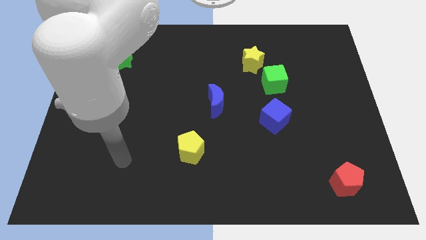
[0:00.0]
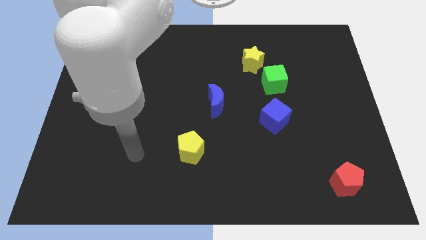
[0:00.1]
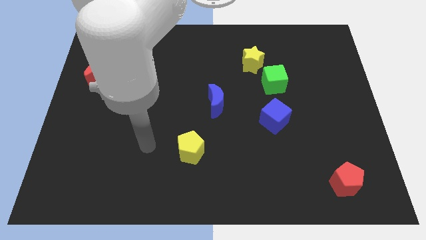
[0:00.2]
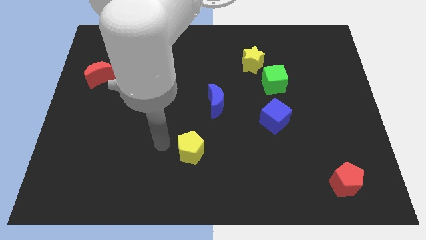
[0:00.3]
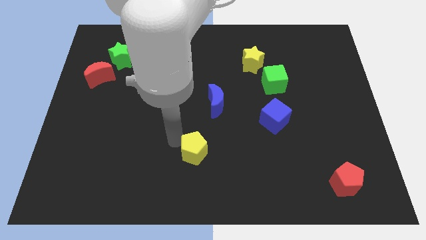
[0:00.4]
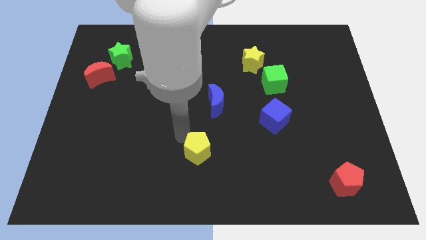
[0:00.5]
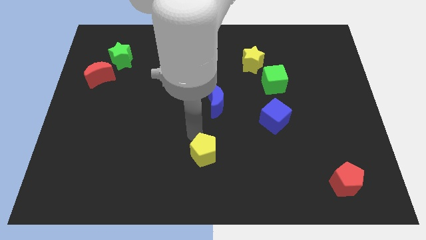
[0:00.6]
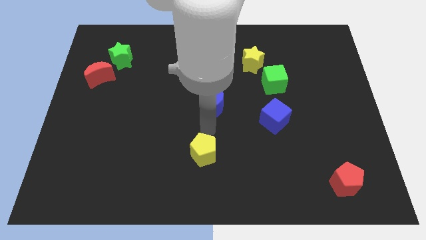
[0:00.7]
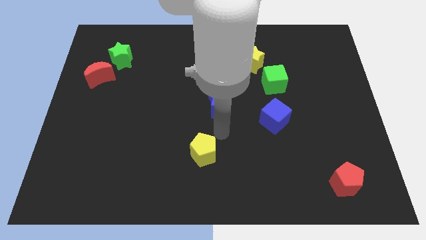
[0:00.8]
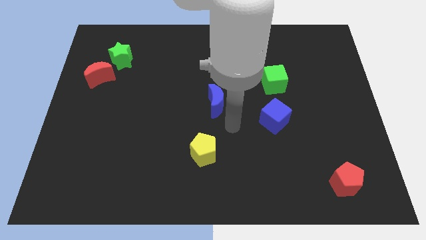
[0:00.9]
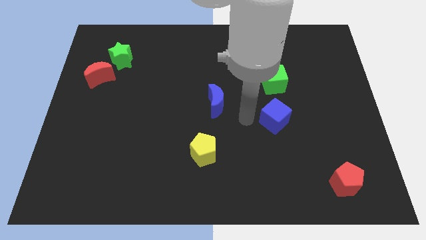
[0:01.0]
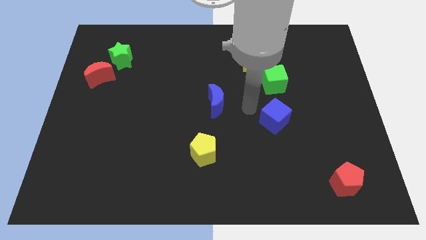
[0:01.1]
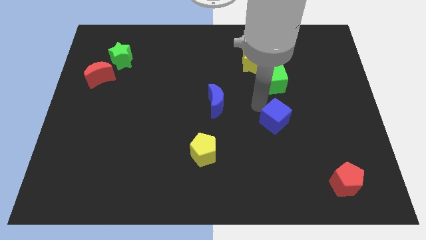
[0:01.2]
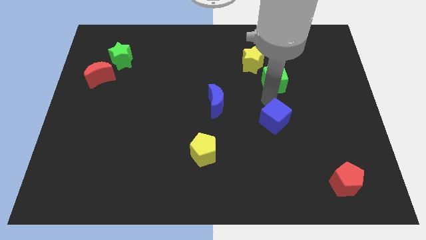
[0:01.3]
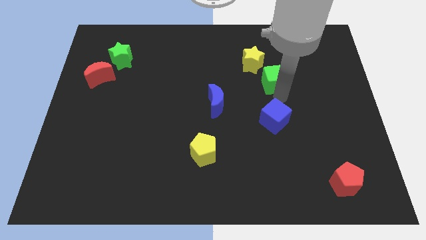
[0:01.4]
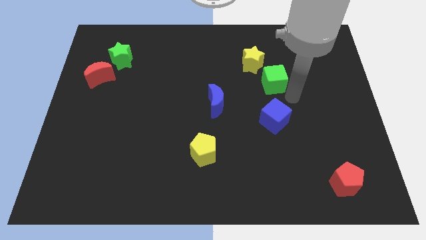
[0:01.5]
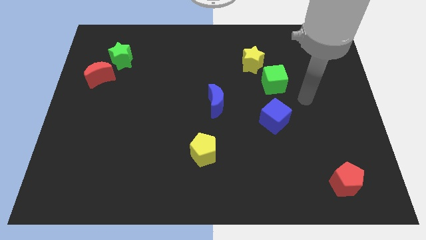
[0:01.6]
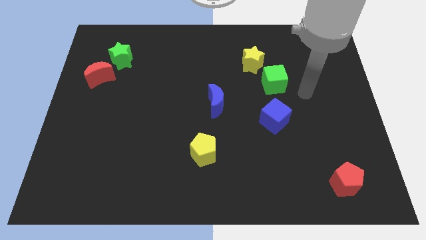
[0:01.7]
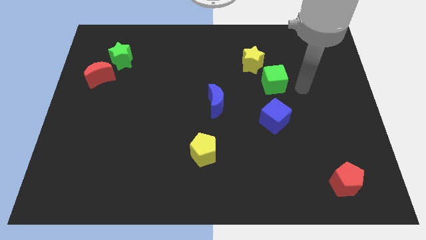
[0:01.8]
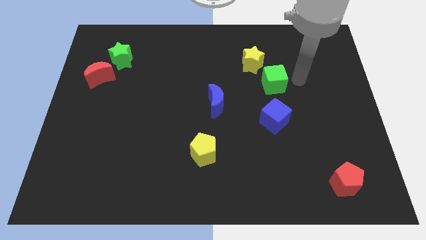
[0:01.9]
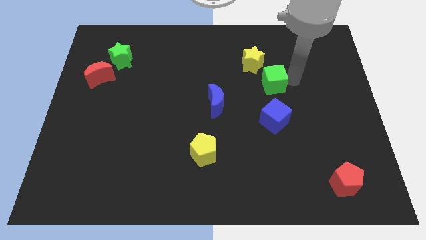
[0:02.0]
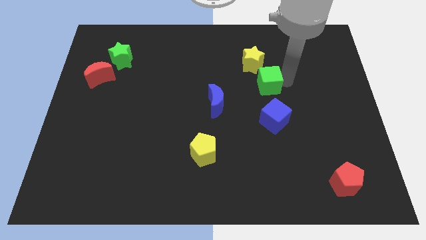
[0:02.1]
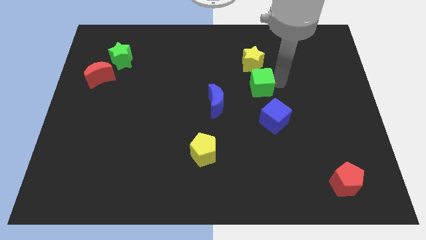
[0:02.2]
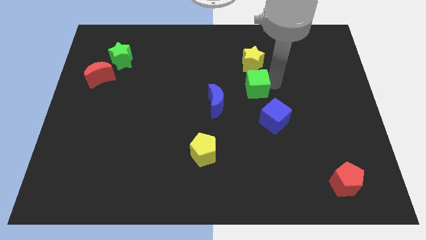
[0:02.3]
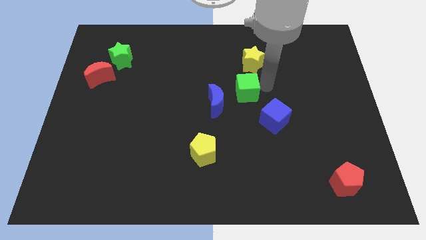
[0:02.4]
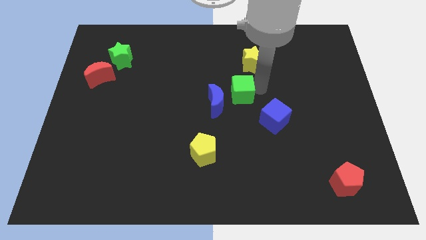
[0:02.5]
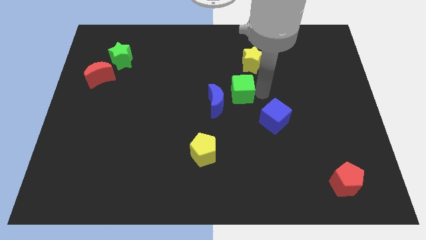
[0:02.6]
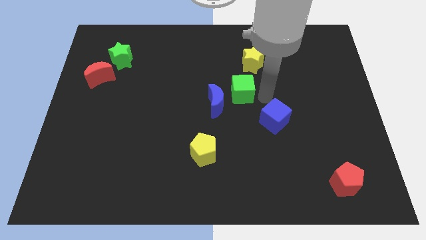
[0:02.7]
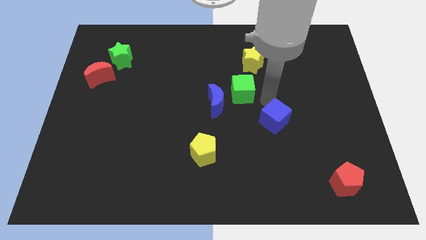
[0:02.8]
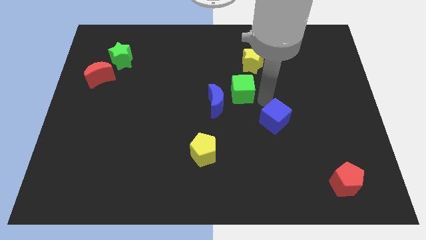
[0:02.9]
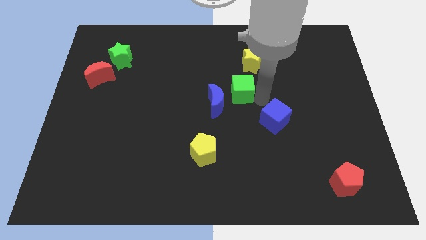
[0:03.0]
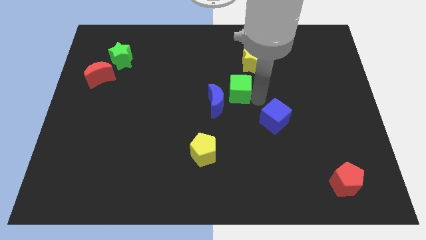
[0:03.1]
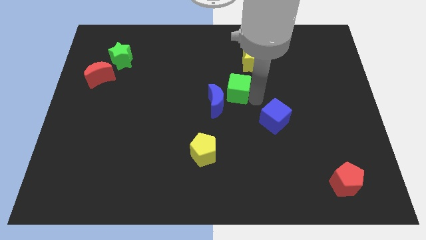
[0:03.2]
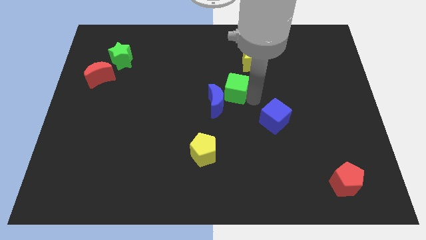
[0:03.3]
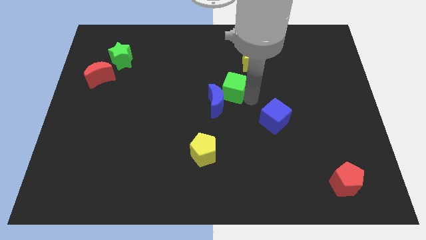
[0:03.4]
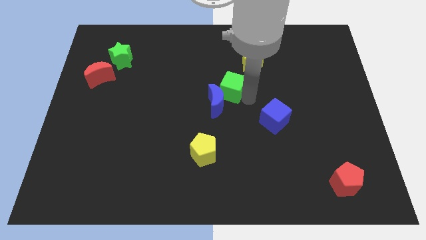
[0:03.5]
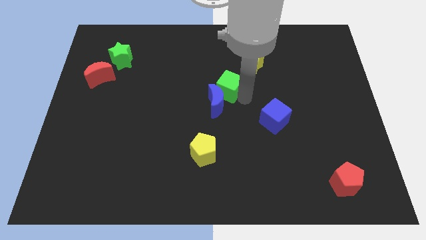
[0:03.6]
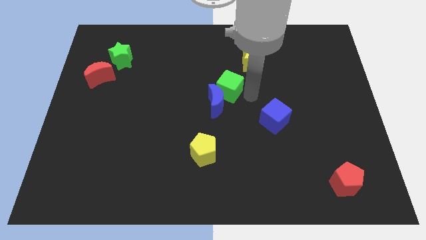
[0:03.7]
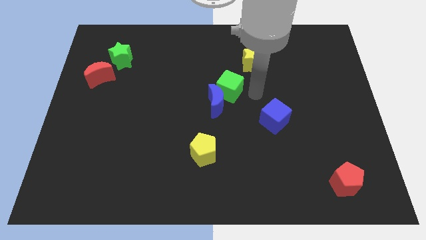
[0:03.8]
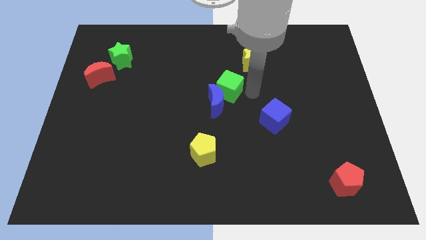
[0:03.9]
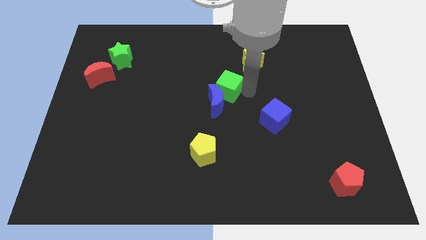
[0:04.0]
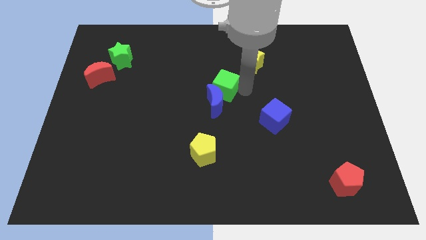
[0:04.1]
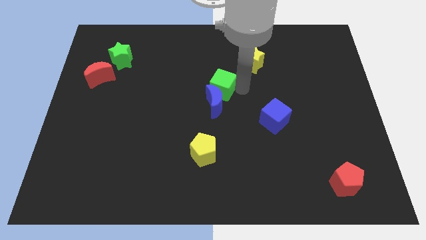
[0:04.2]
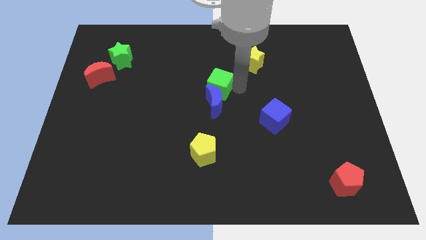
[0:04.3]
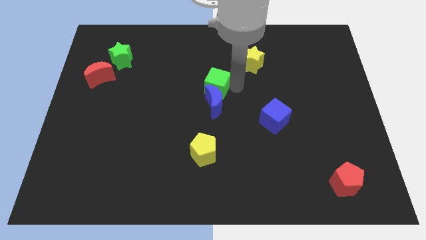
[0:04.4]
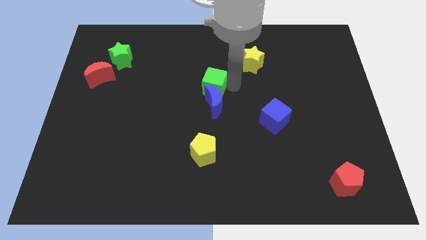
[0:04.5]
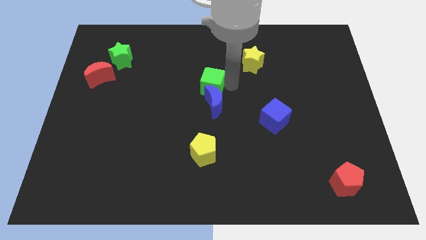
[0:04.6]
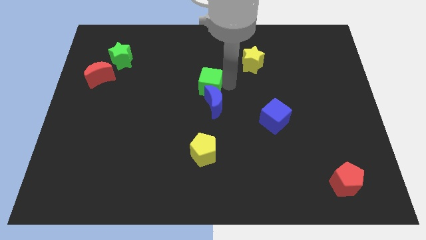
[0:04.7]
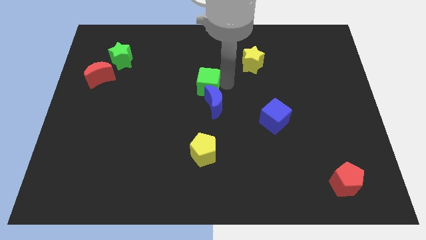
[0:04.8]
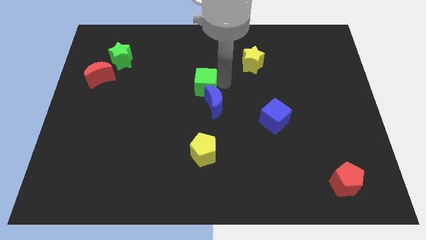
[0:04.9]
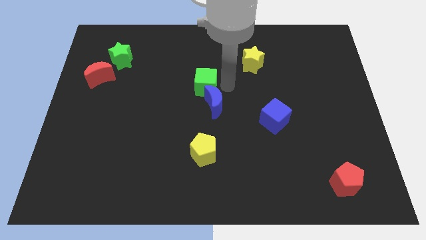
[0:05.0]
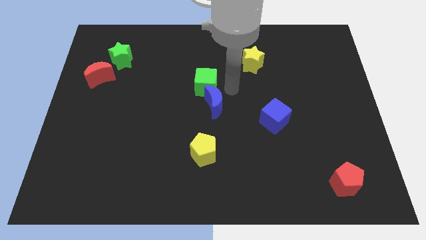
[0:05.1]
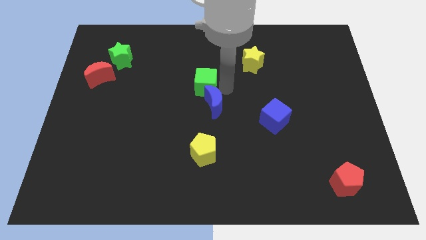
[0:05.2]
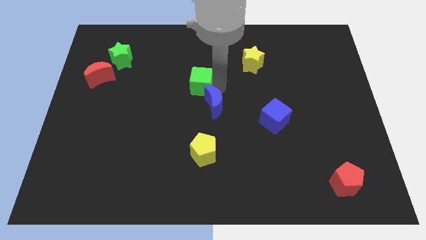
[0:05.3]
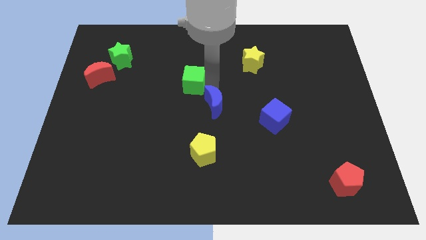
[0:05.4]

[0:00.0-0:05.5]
slide the green cube to the left

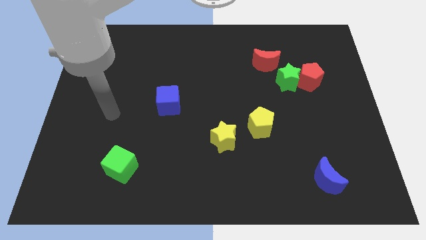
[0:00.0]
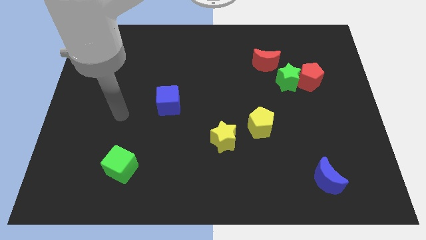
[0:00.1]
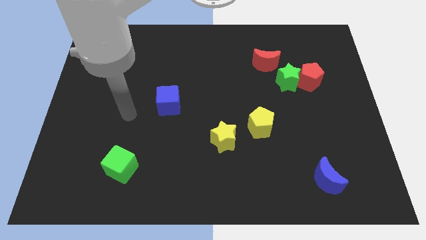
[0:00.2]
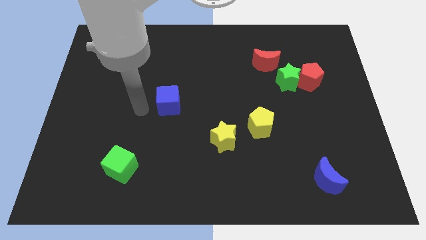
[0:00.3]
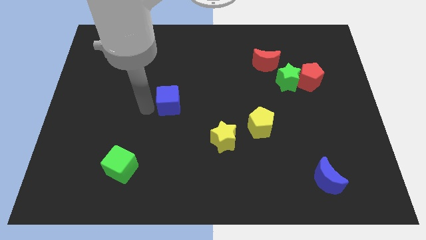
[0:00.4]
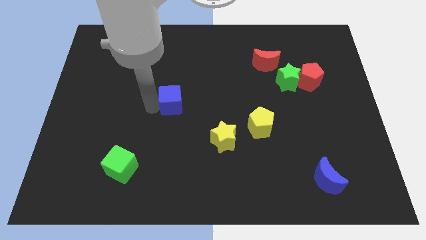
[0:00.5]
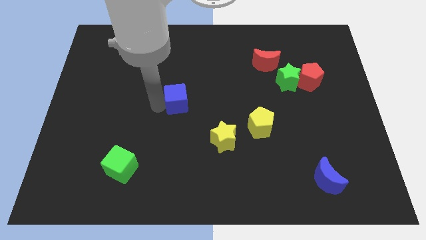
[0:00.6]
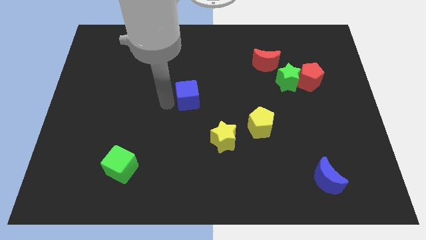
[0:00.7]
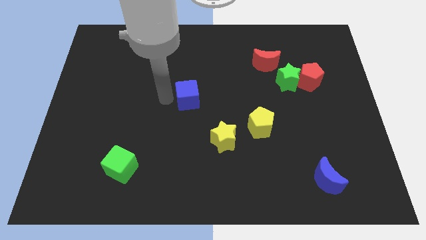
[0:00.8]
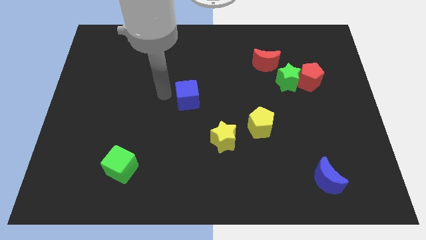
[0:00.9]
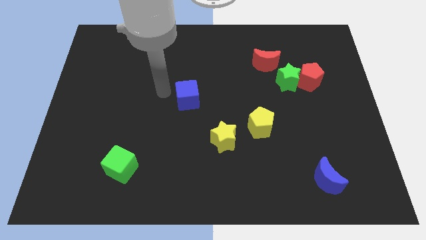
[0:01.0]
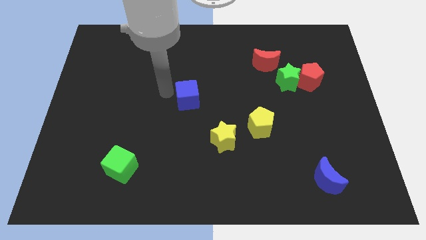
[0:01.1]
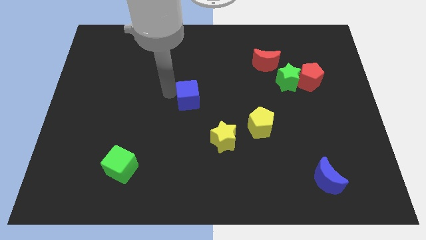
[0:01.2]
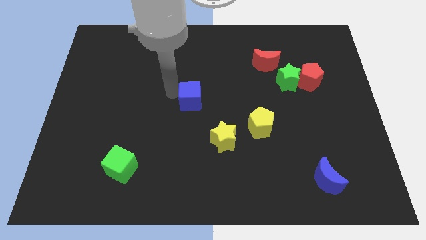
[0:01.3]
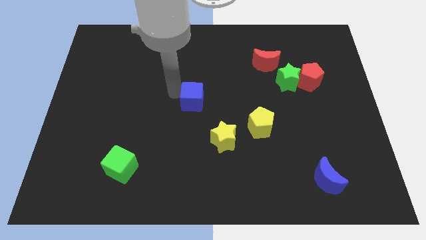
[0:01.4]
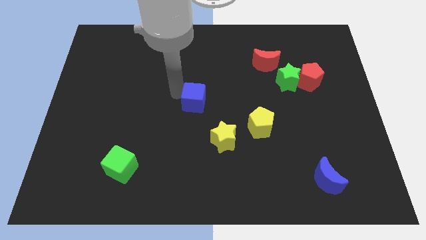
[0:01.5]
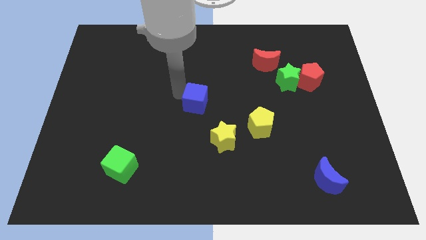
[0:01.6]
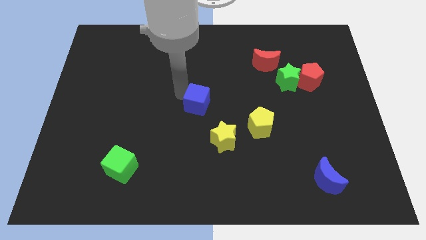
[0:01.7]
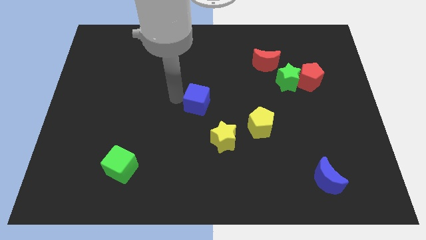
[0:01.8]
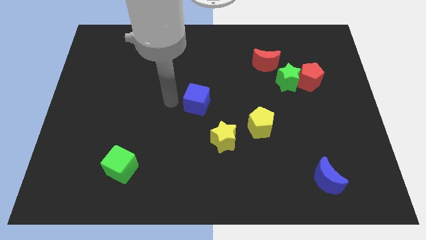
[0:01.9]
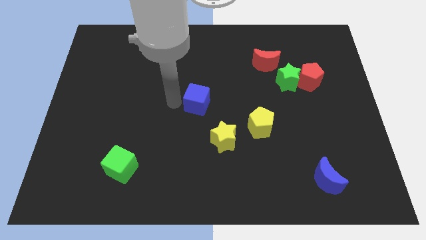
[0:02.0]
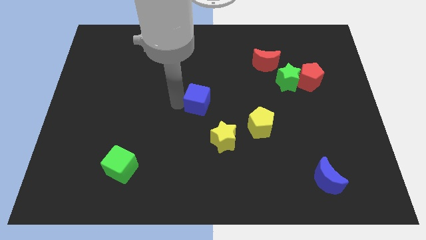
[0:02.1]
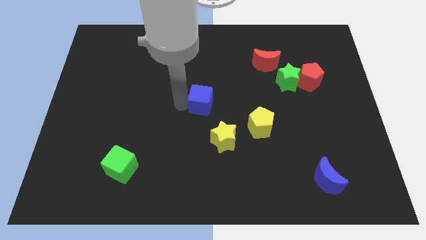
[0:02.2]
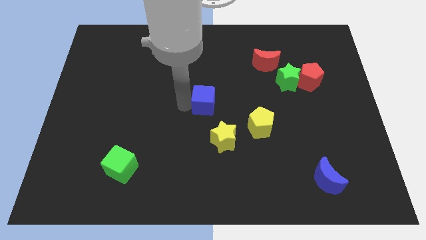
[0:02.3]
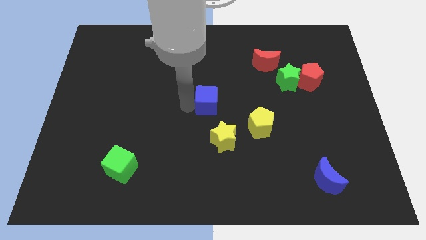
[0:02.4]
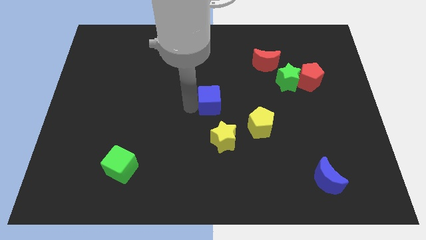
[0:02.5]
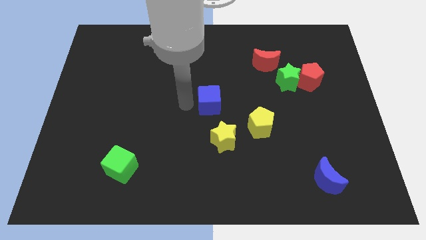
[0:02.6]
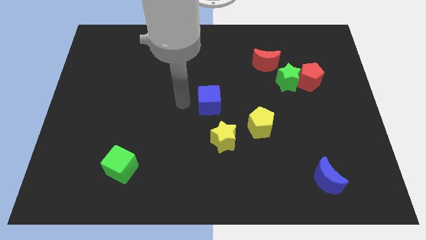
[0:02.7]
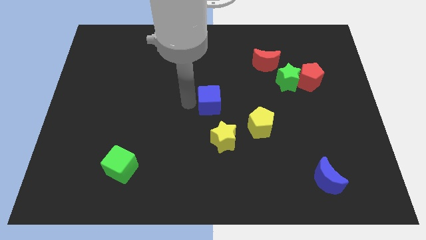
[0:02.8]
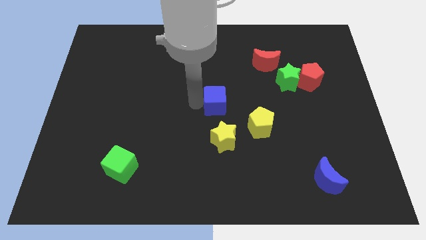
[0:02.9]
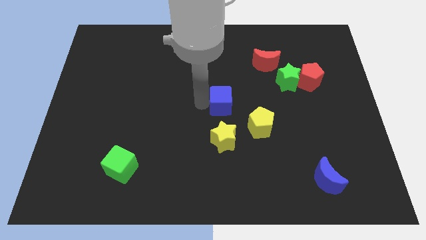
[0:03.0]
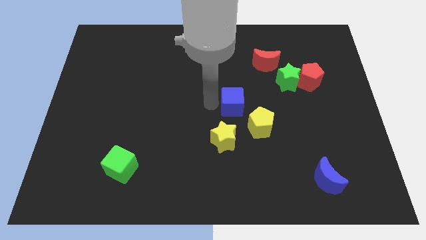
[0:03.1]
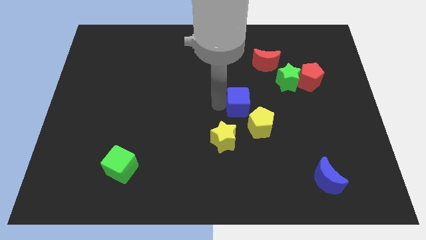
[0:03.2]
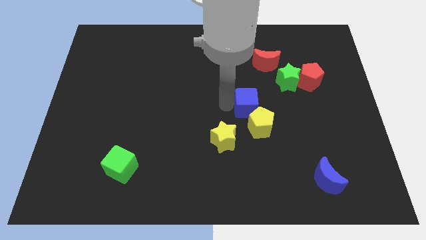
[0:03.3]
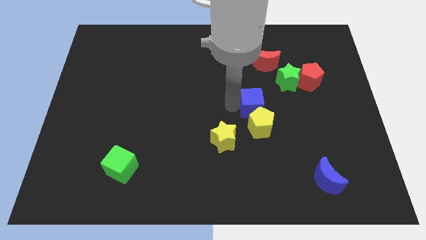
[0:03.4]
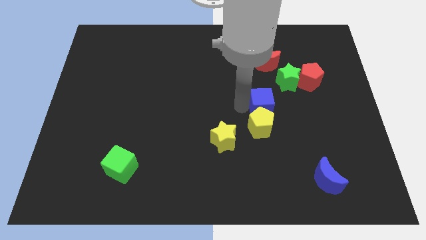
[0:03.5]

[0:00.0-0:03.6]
move the blue cube right
